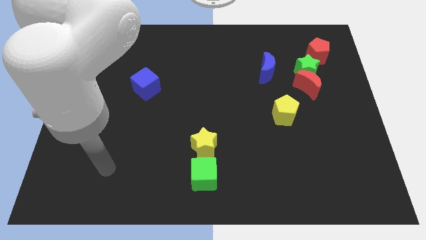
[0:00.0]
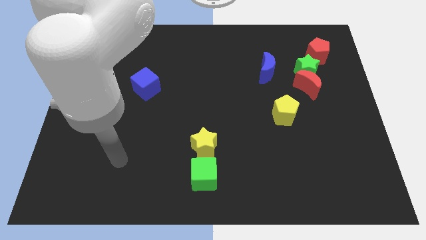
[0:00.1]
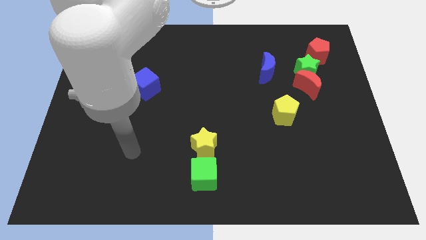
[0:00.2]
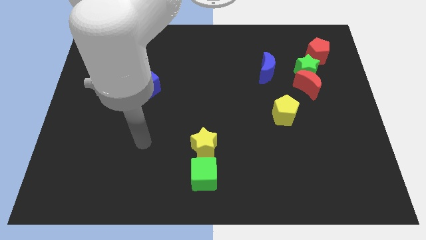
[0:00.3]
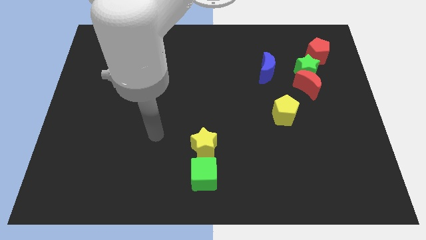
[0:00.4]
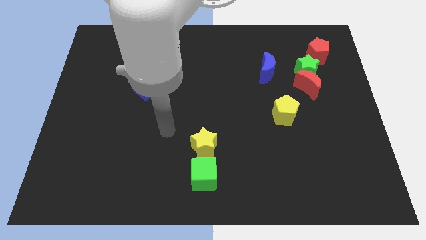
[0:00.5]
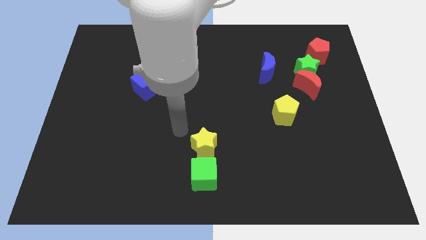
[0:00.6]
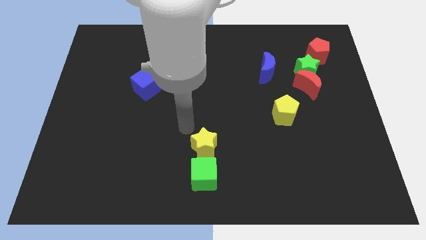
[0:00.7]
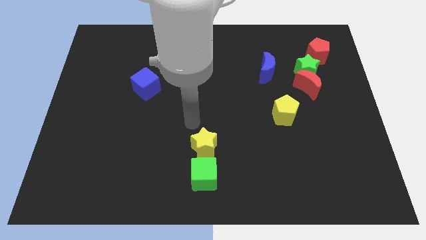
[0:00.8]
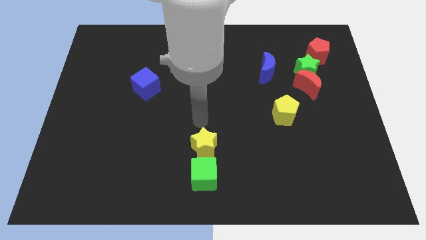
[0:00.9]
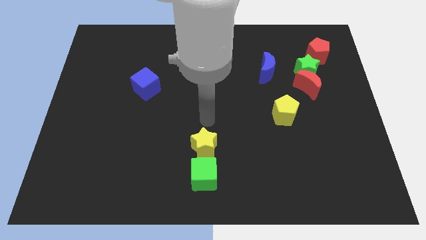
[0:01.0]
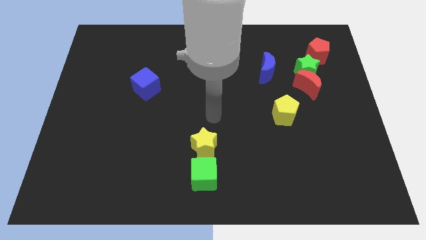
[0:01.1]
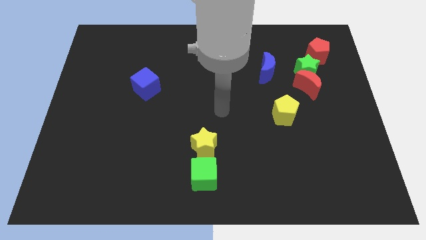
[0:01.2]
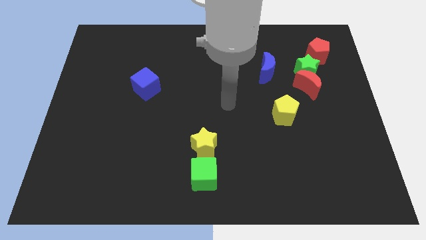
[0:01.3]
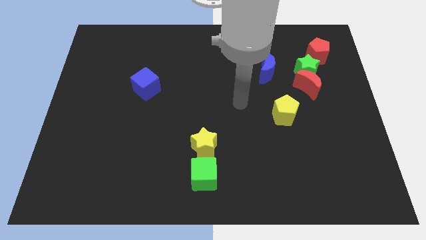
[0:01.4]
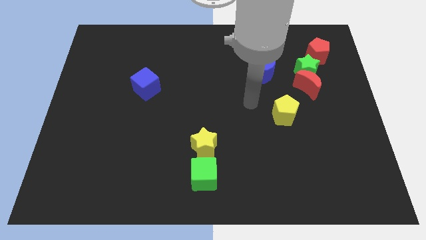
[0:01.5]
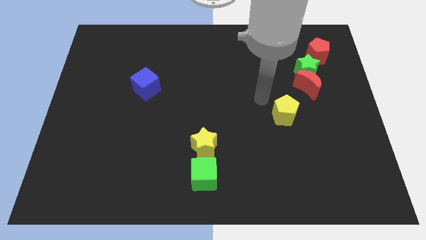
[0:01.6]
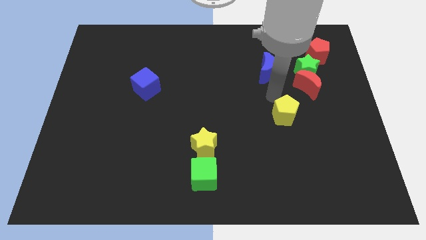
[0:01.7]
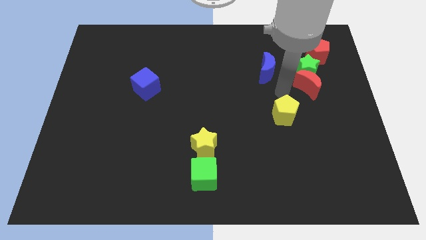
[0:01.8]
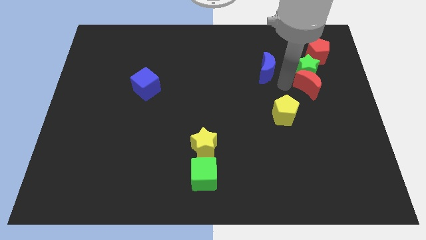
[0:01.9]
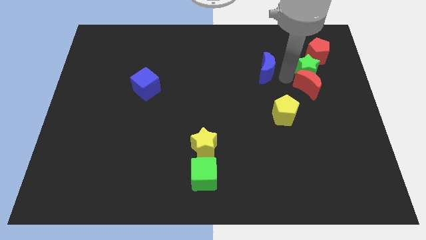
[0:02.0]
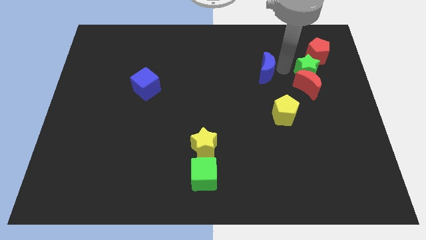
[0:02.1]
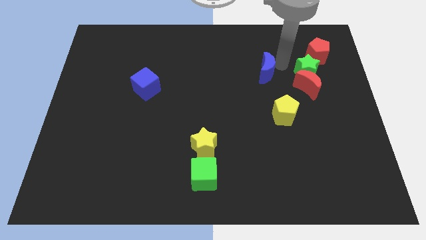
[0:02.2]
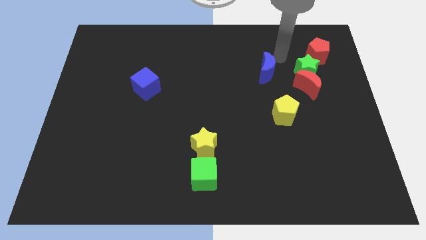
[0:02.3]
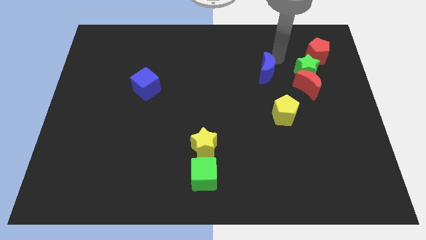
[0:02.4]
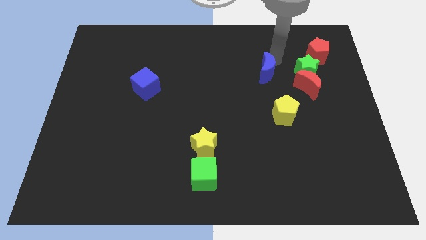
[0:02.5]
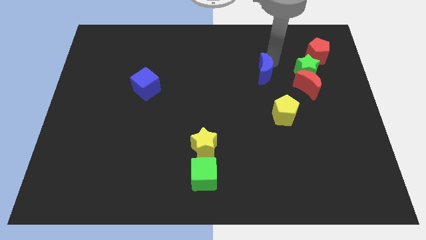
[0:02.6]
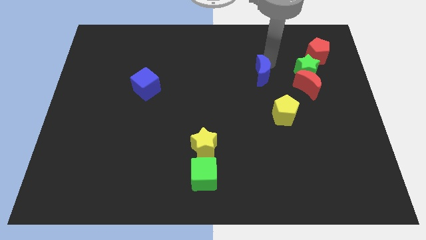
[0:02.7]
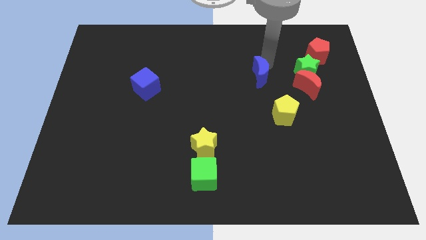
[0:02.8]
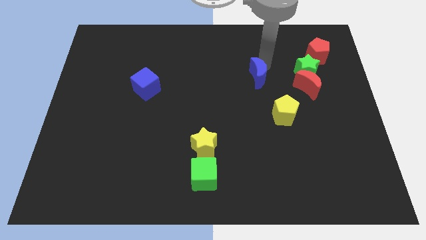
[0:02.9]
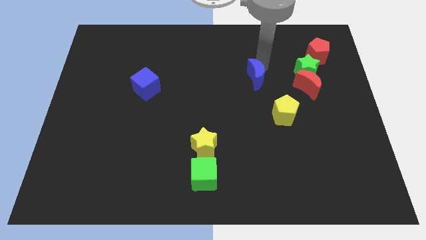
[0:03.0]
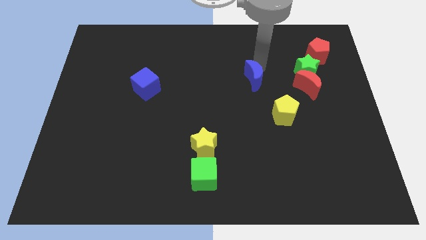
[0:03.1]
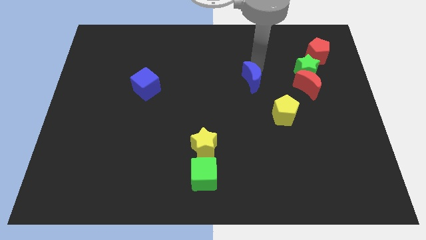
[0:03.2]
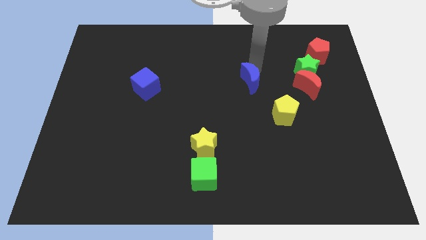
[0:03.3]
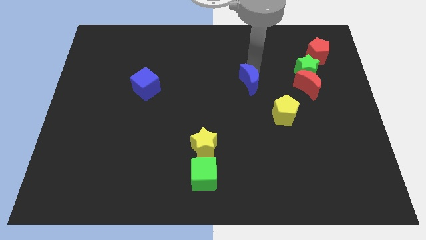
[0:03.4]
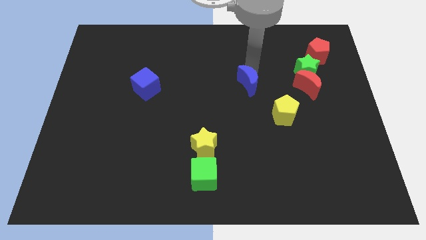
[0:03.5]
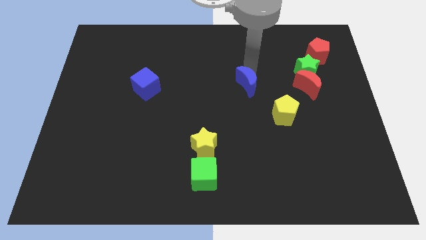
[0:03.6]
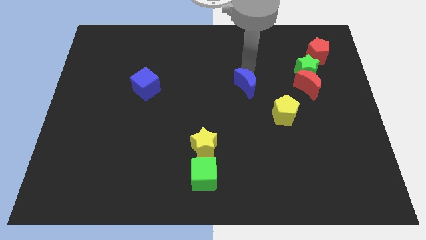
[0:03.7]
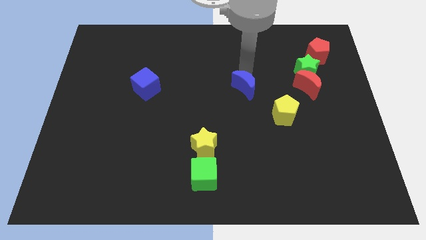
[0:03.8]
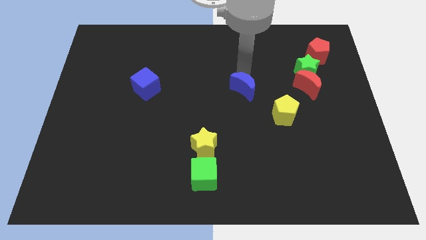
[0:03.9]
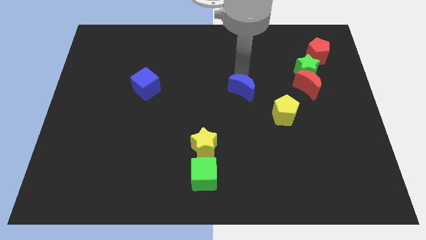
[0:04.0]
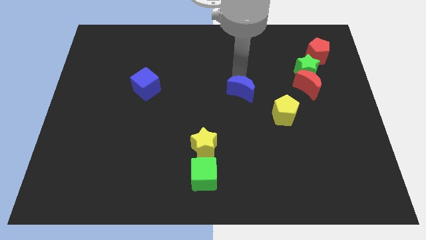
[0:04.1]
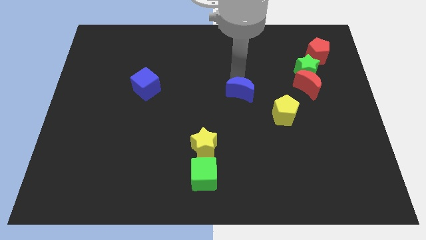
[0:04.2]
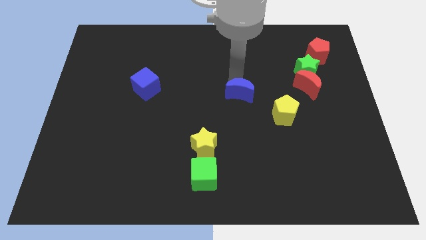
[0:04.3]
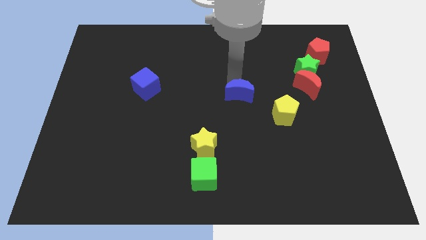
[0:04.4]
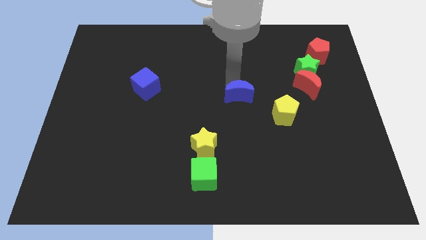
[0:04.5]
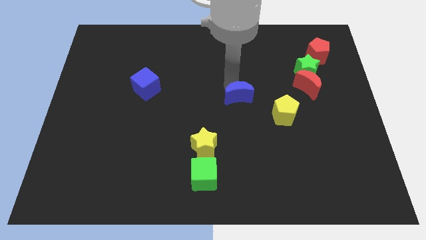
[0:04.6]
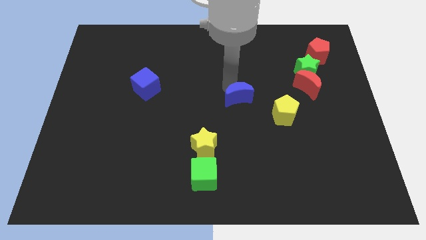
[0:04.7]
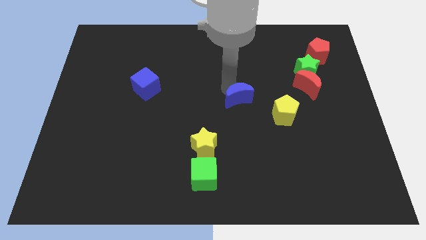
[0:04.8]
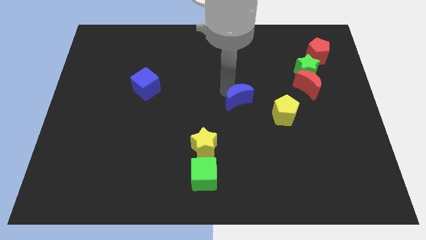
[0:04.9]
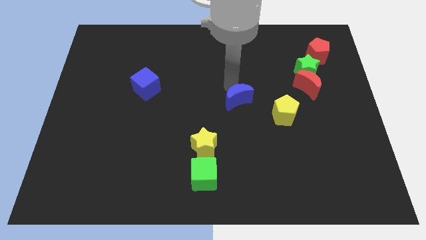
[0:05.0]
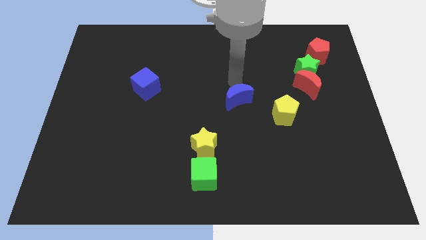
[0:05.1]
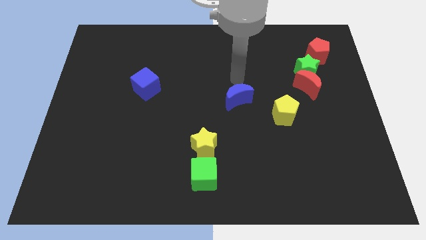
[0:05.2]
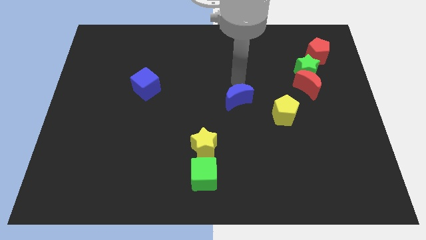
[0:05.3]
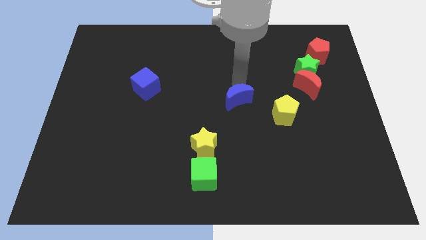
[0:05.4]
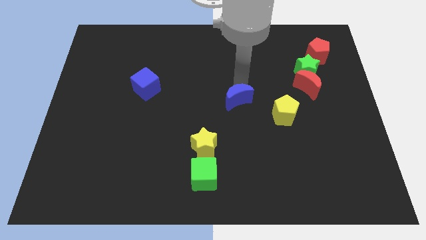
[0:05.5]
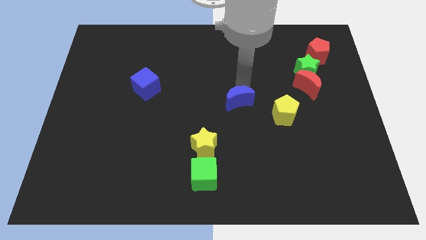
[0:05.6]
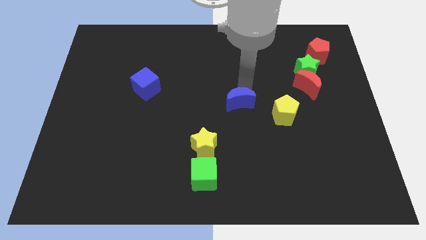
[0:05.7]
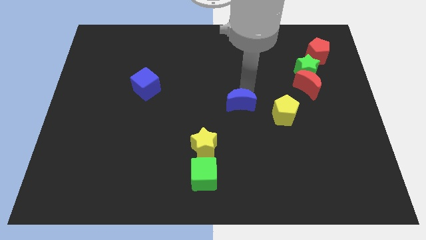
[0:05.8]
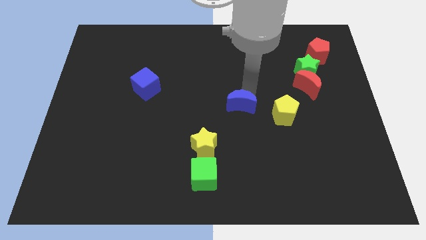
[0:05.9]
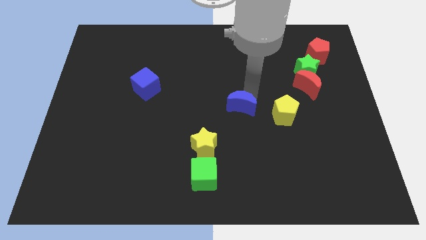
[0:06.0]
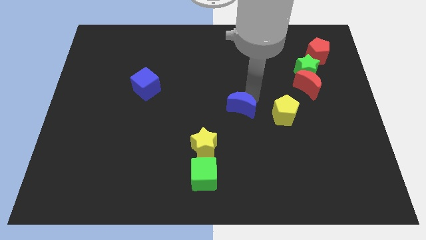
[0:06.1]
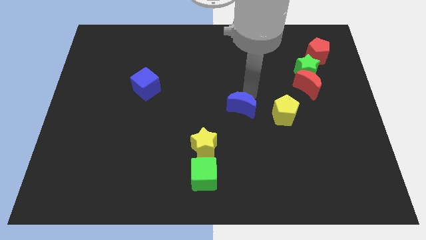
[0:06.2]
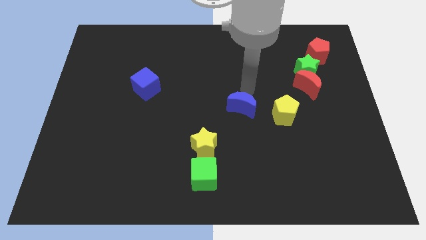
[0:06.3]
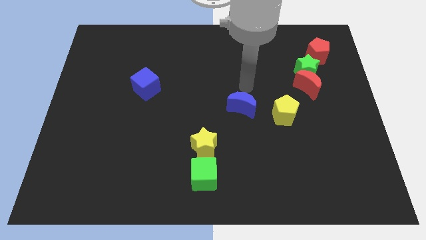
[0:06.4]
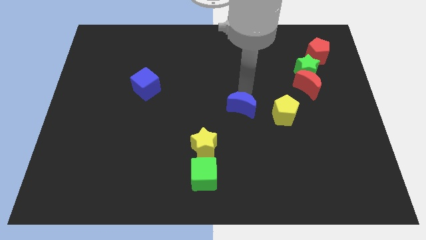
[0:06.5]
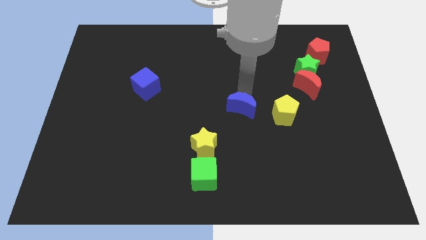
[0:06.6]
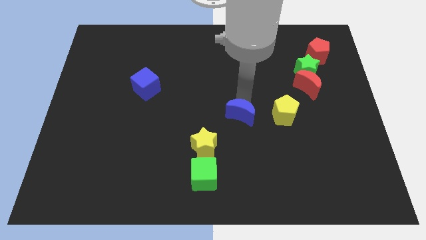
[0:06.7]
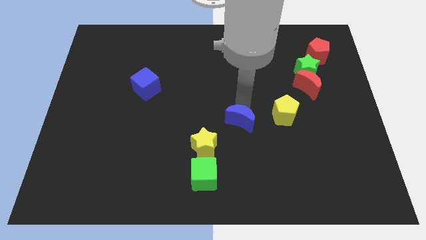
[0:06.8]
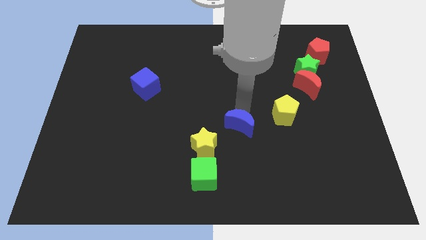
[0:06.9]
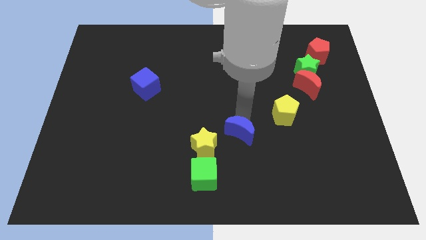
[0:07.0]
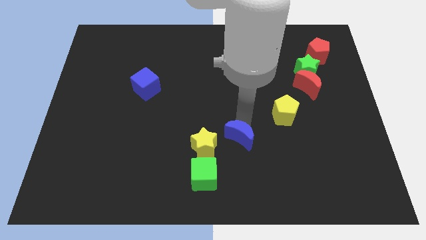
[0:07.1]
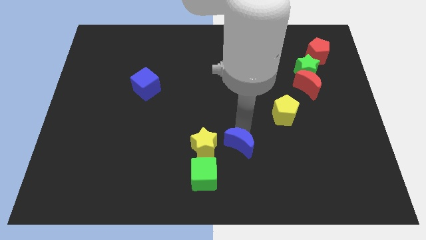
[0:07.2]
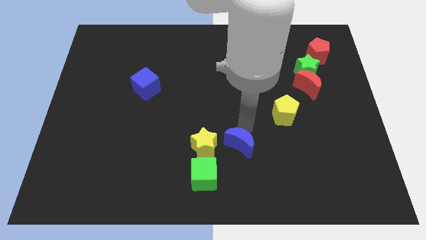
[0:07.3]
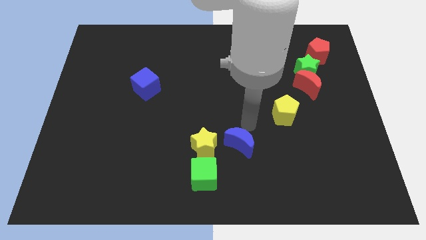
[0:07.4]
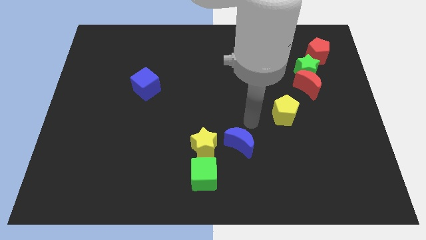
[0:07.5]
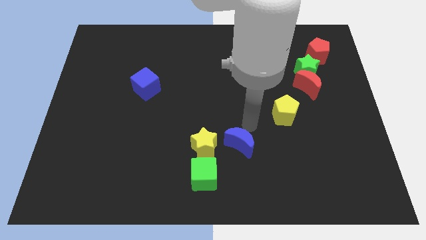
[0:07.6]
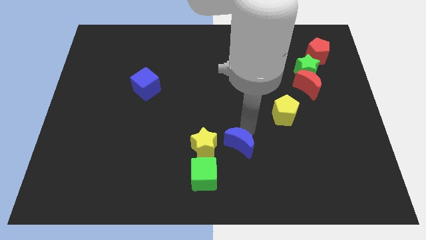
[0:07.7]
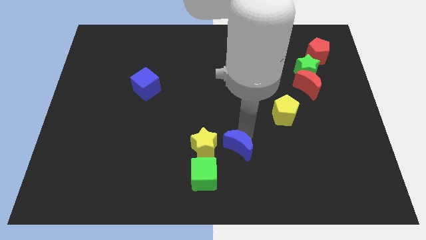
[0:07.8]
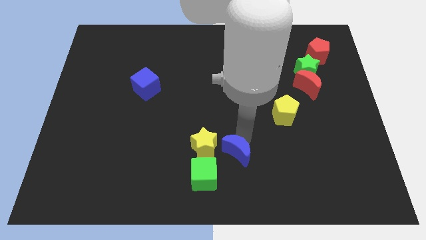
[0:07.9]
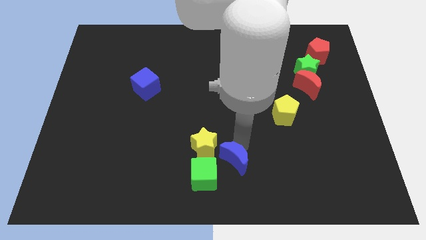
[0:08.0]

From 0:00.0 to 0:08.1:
put the blue moon to the bottom side
